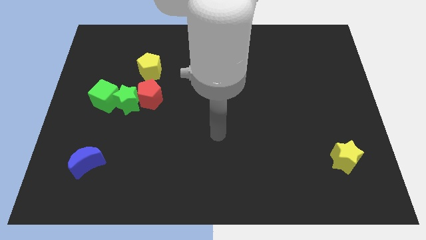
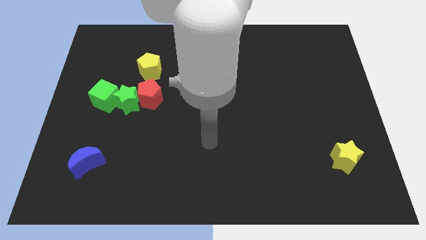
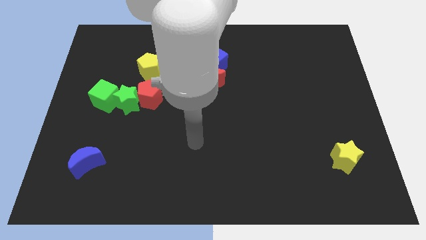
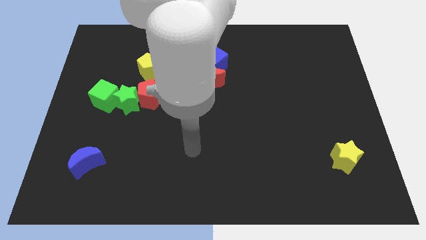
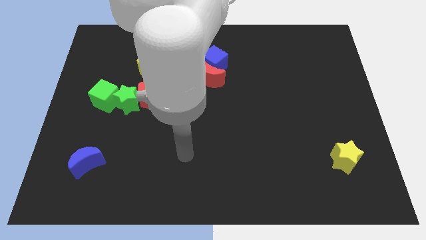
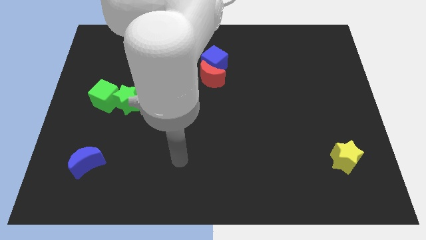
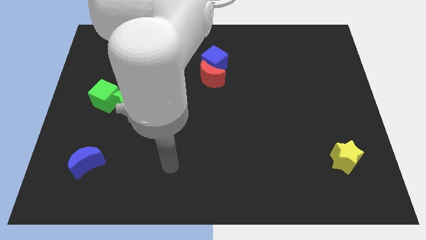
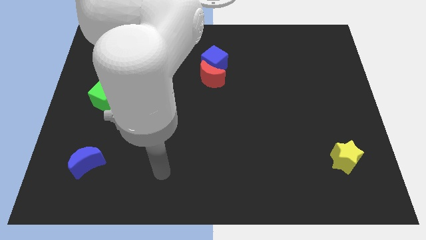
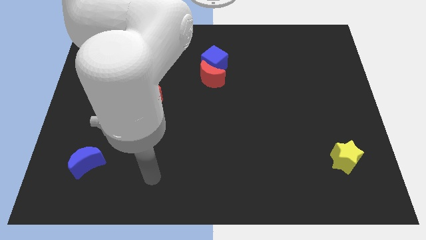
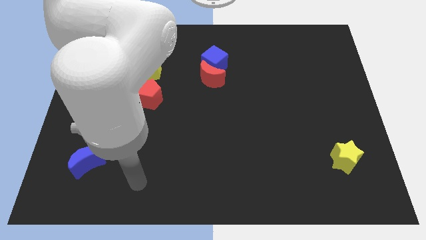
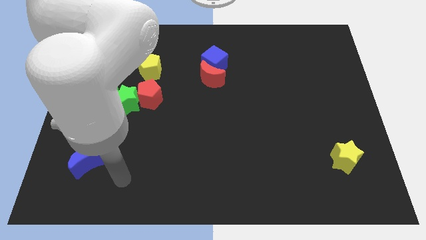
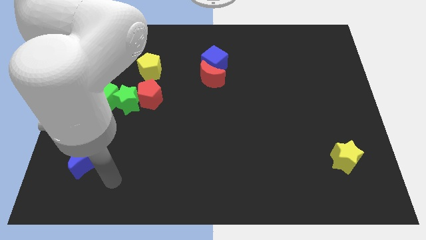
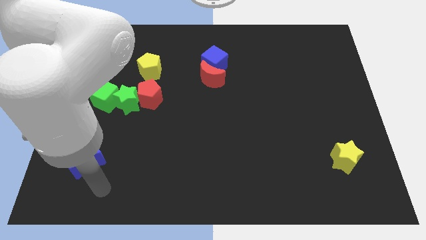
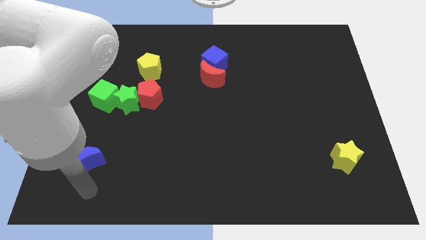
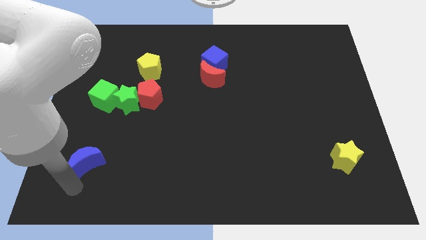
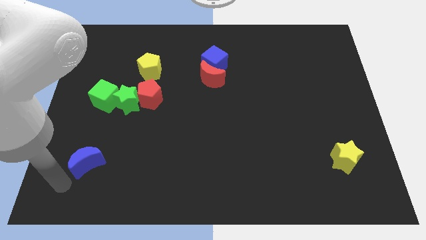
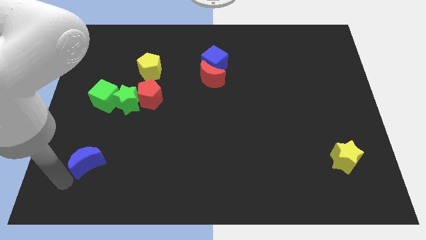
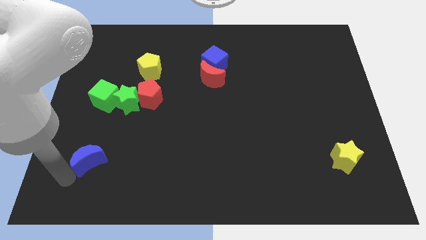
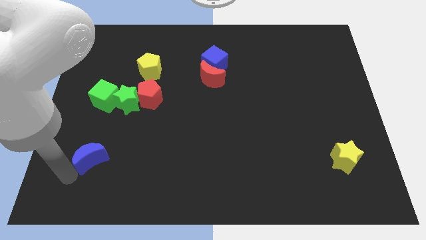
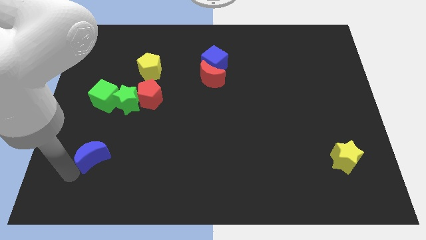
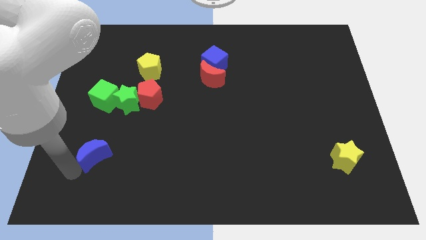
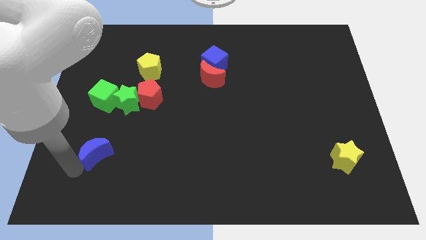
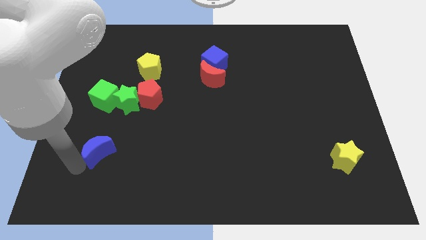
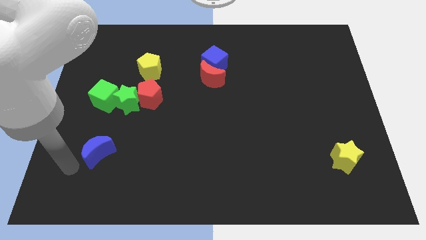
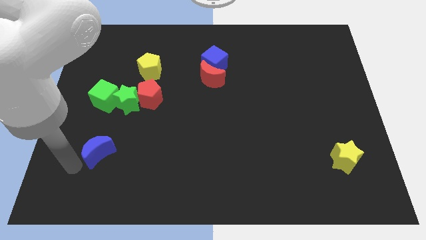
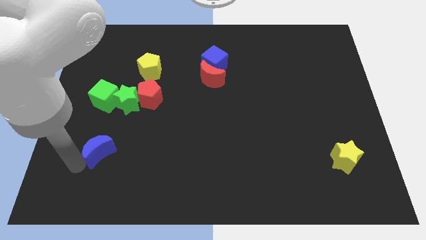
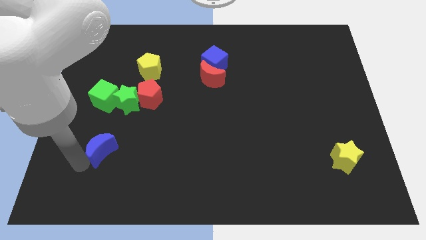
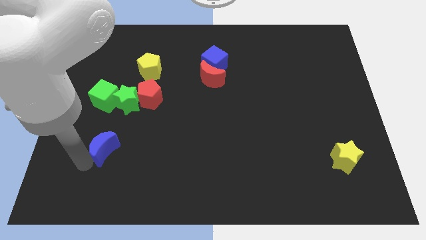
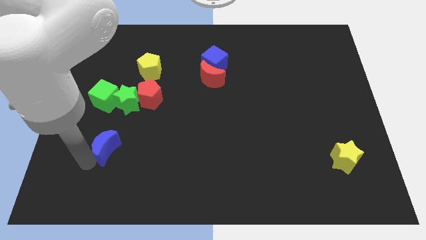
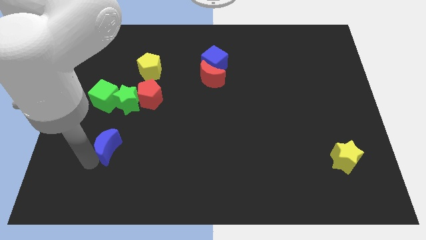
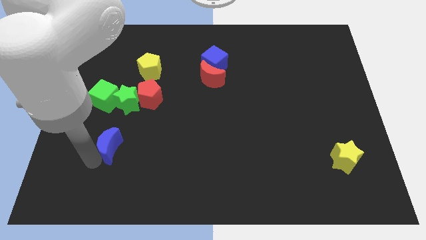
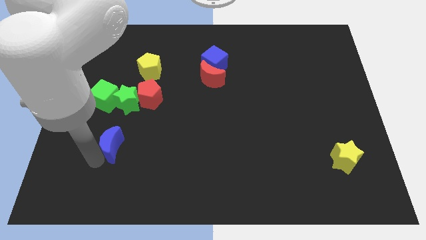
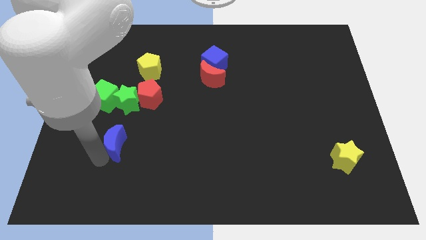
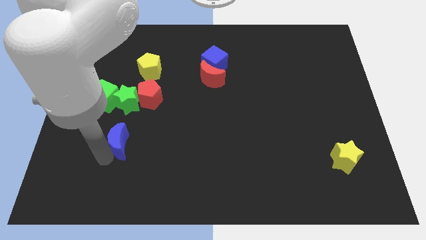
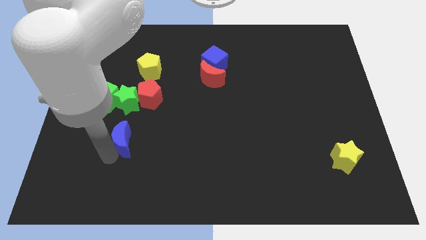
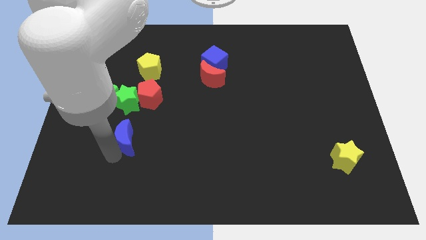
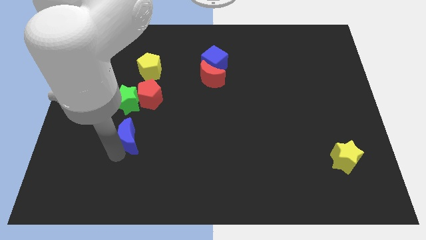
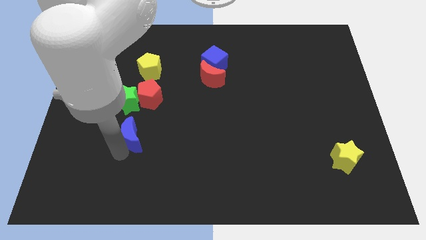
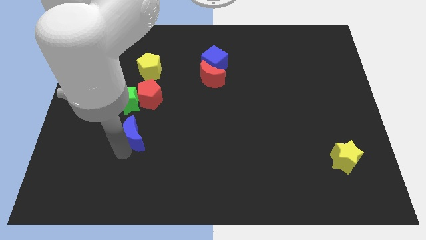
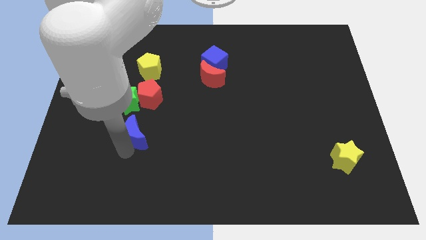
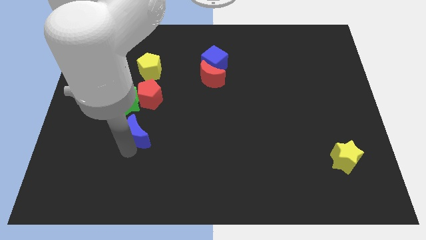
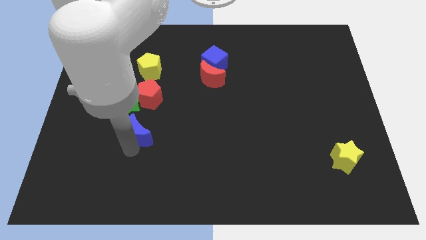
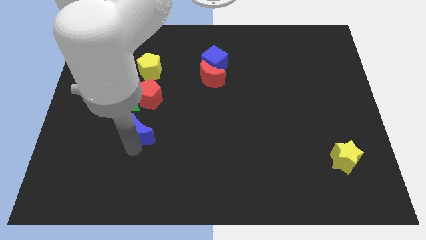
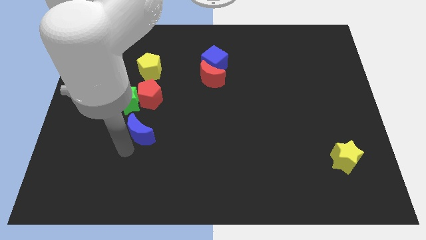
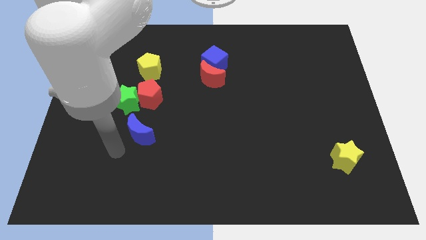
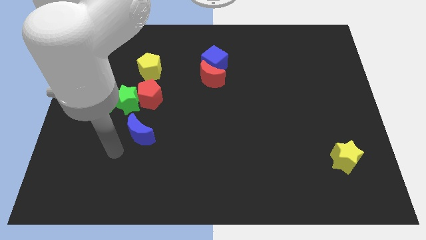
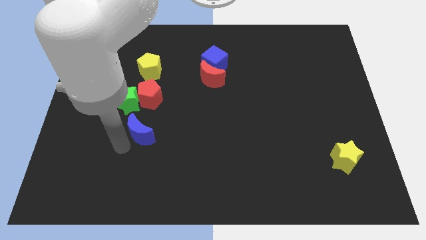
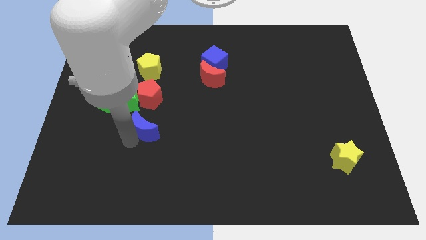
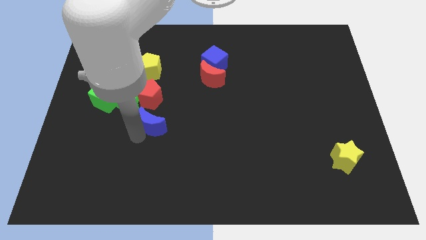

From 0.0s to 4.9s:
push the blue moon diagonally down and to the right of the red pentagon

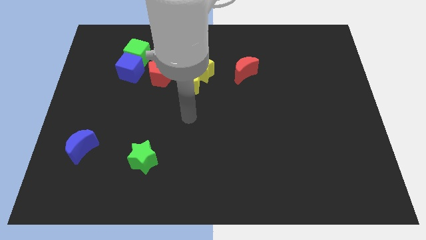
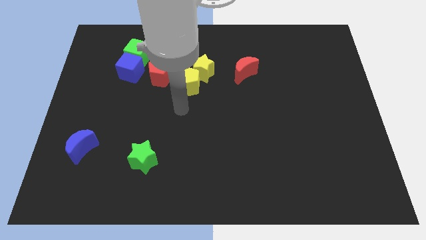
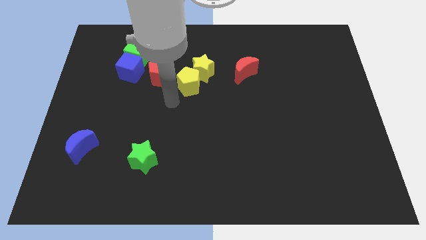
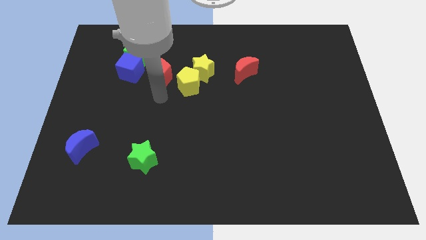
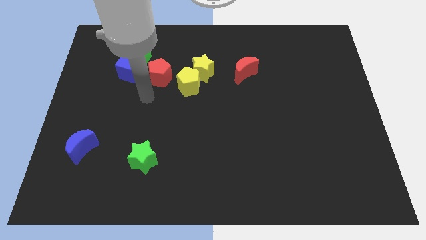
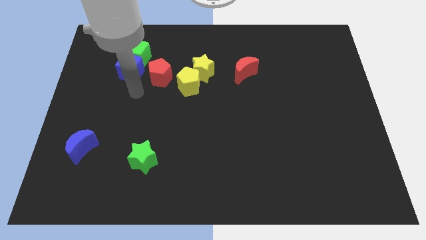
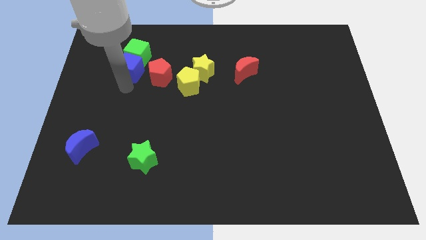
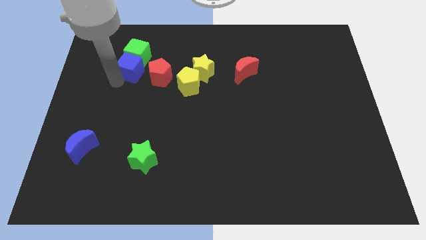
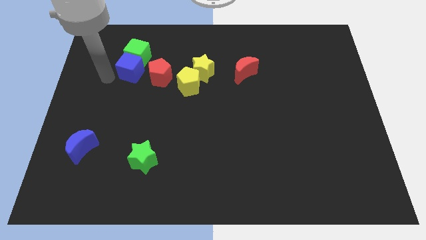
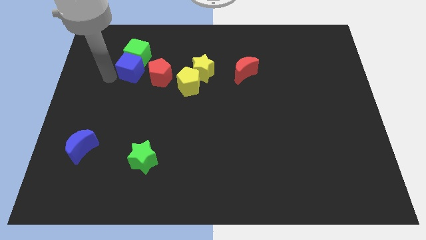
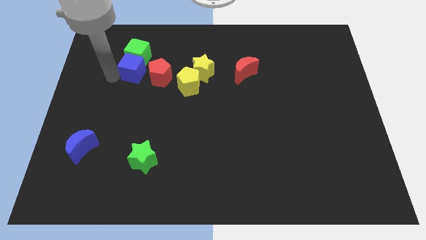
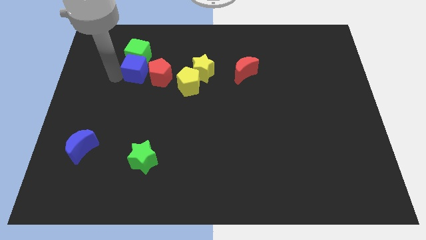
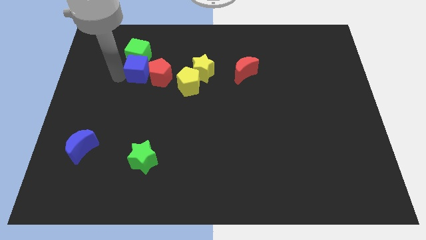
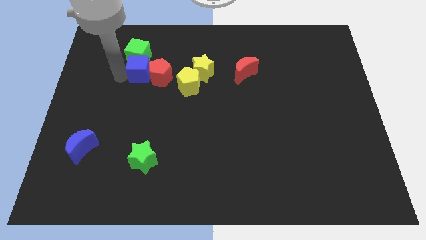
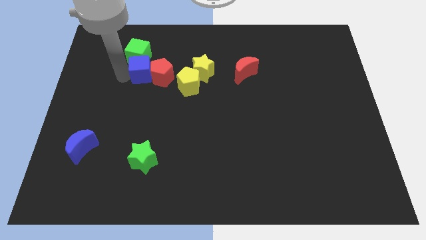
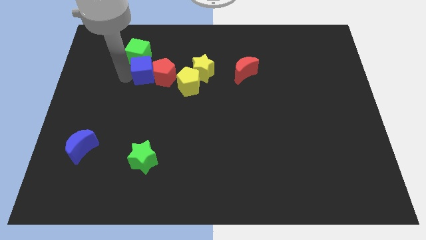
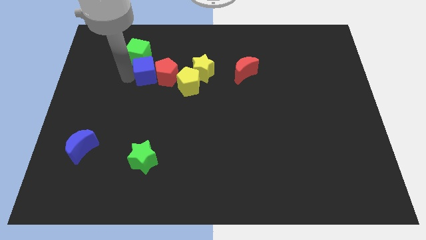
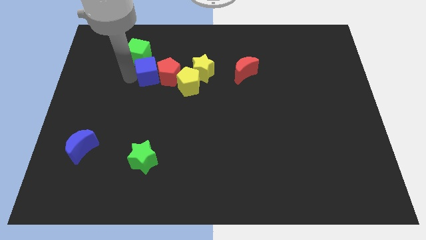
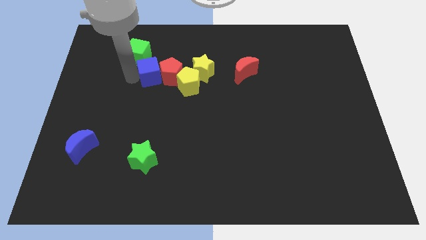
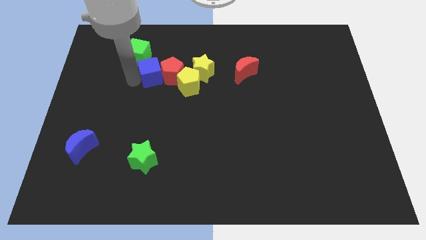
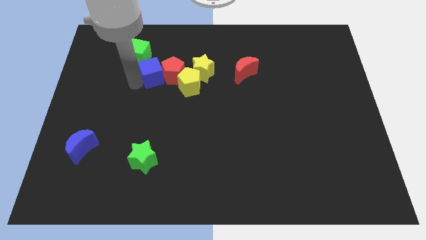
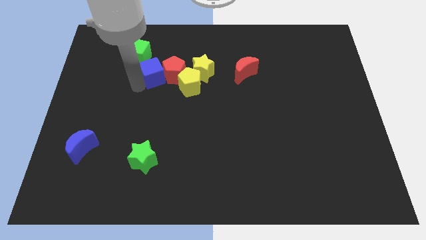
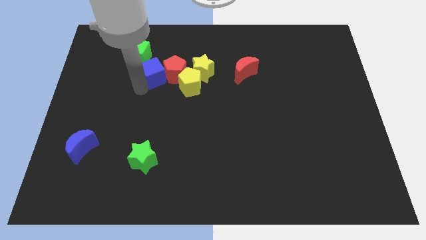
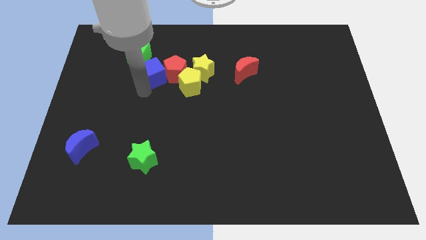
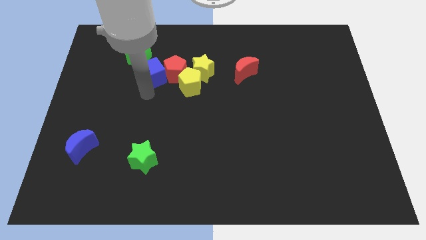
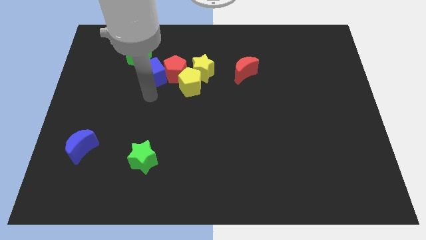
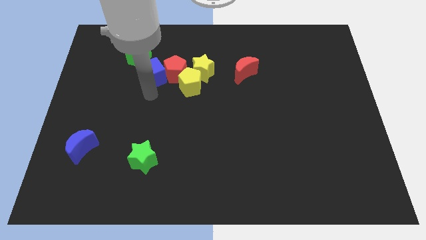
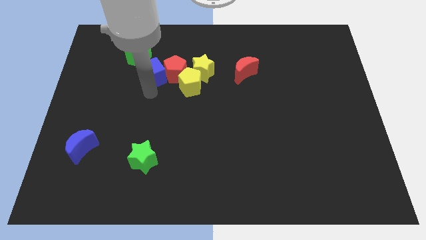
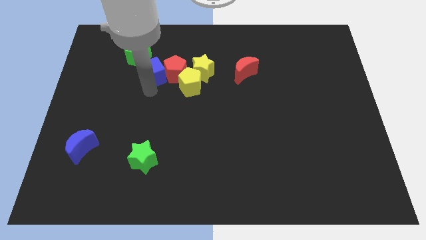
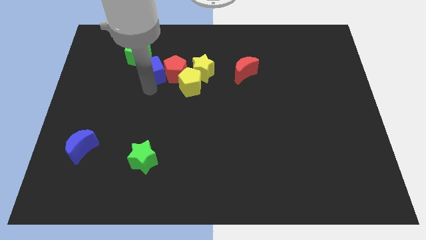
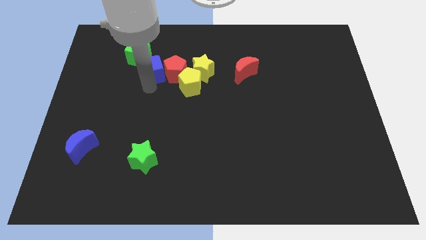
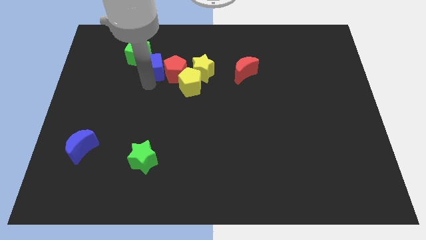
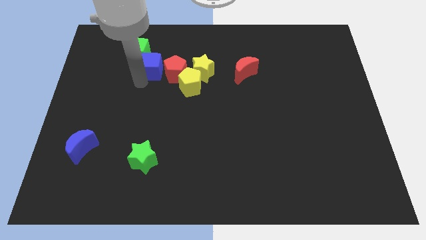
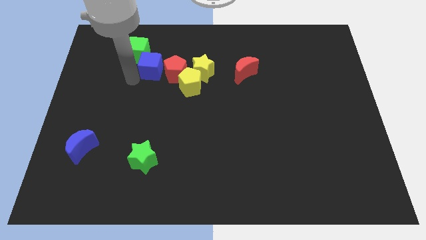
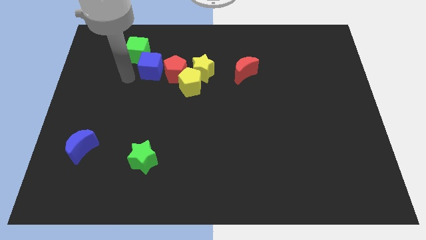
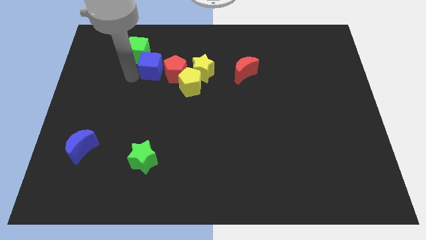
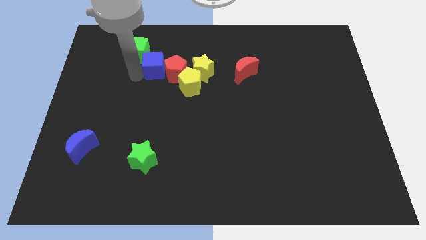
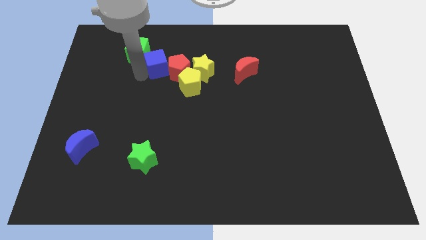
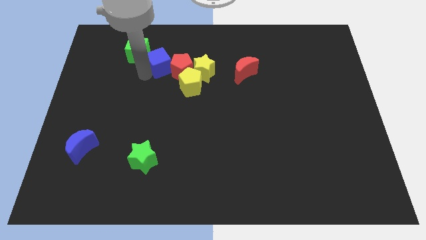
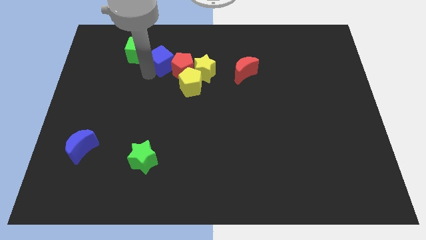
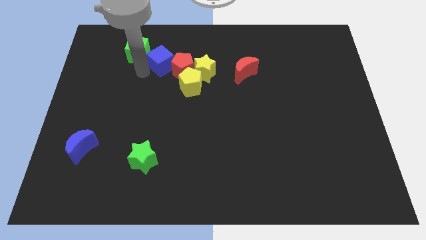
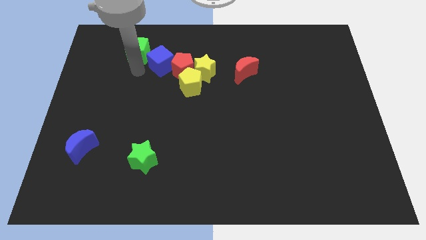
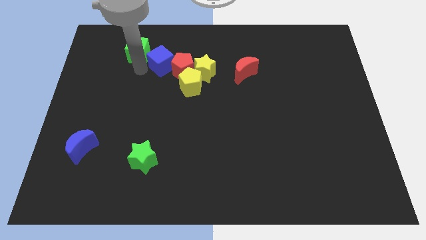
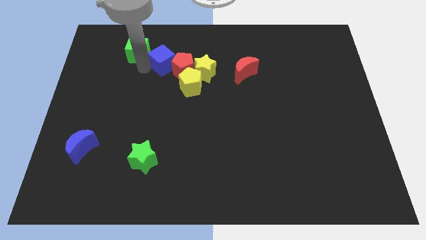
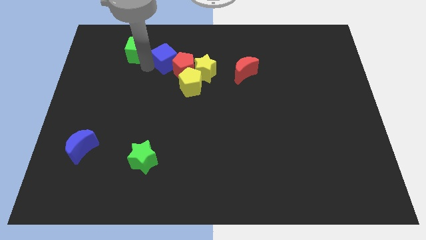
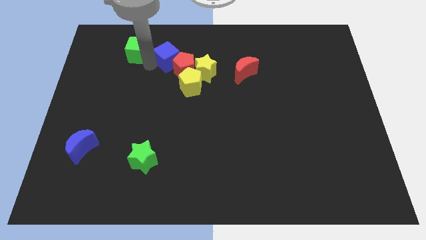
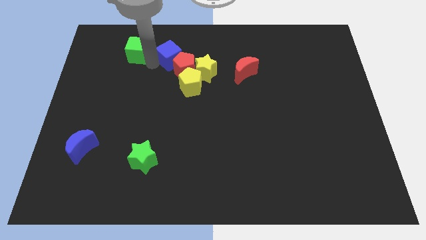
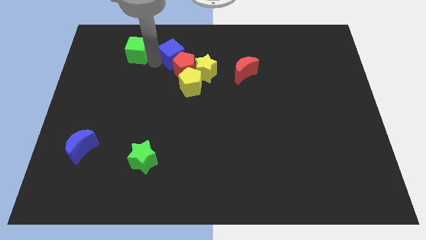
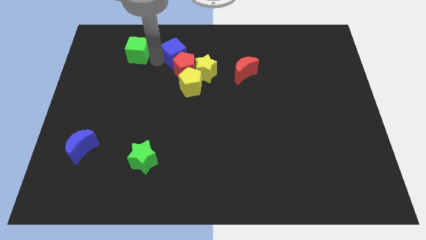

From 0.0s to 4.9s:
slide the blue cube to the top of the yellow pentagon
